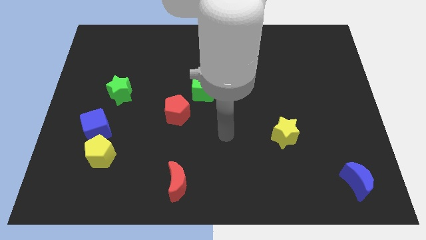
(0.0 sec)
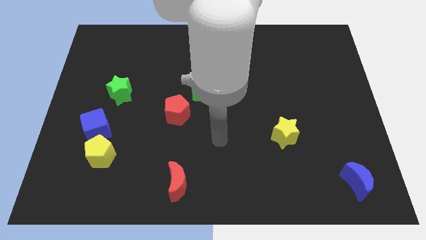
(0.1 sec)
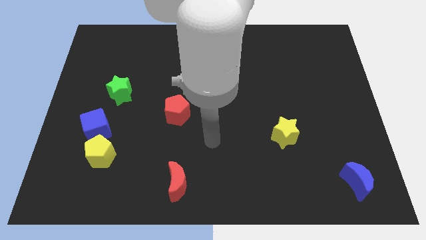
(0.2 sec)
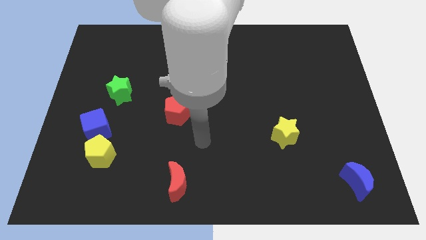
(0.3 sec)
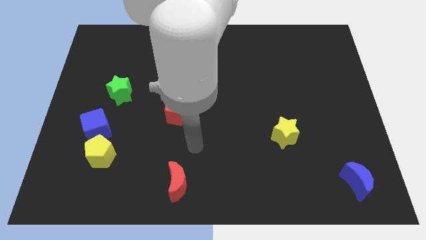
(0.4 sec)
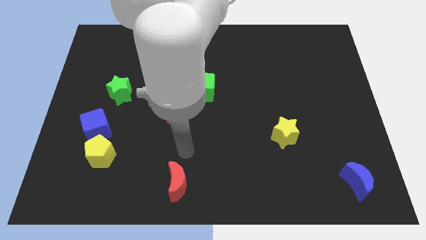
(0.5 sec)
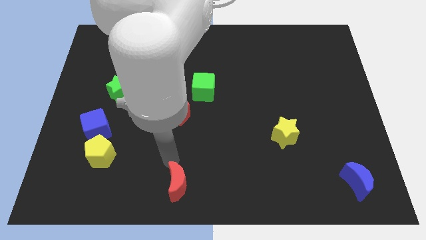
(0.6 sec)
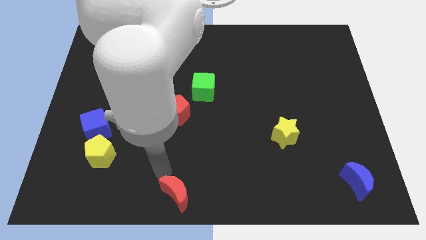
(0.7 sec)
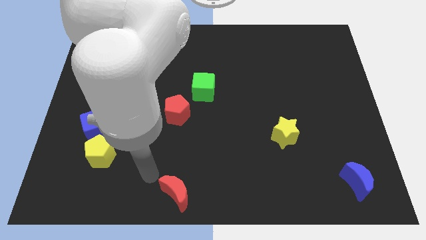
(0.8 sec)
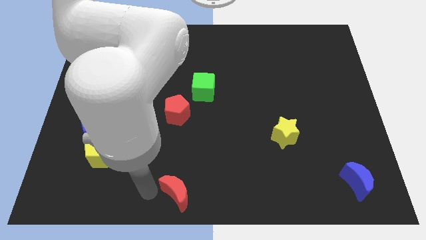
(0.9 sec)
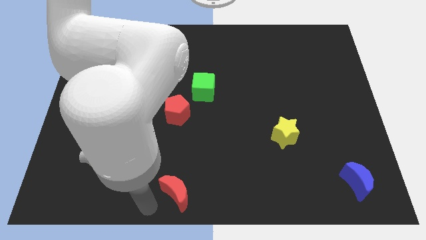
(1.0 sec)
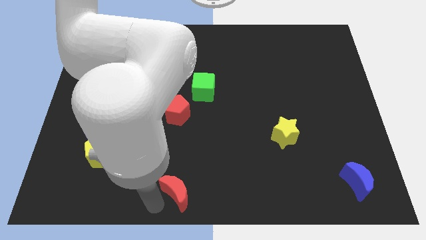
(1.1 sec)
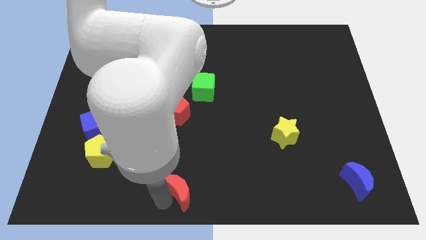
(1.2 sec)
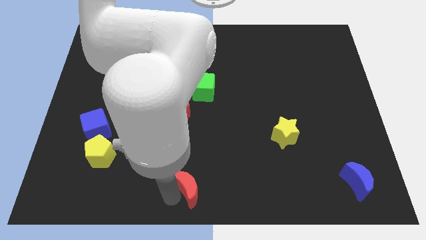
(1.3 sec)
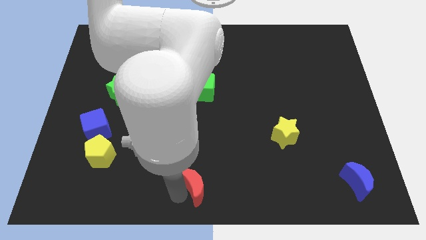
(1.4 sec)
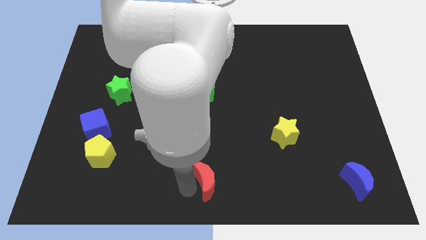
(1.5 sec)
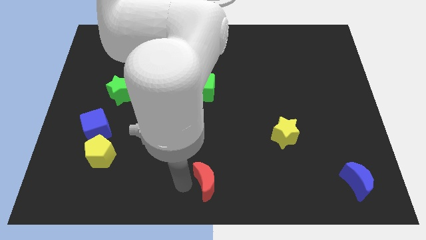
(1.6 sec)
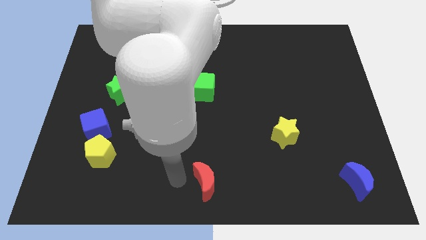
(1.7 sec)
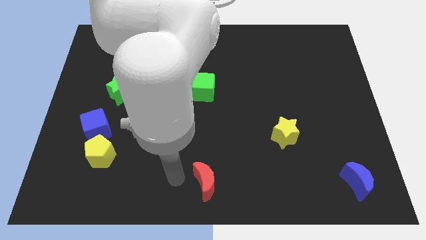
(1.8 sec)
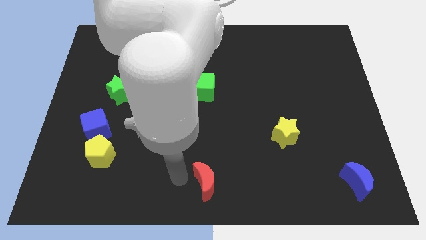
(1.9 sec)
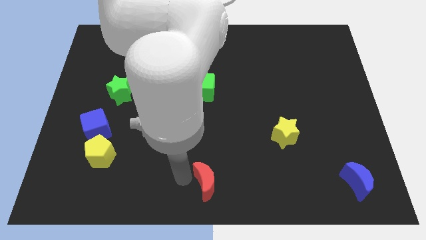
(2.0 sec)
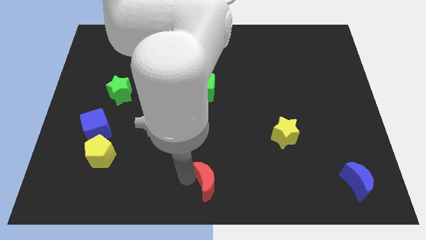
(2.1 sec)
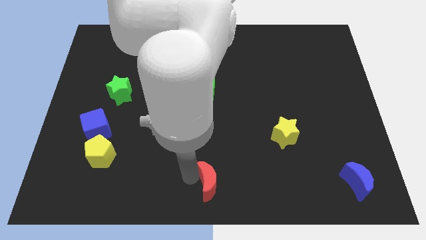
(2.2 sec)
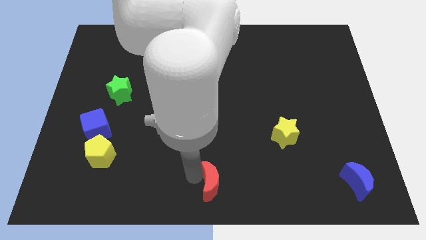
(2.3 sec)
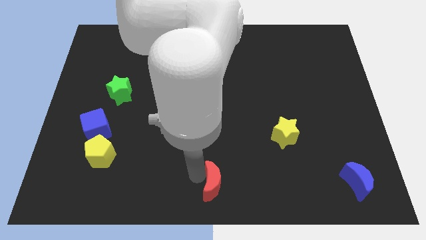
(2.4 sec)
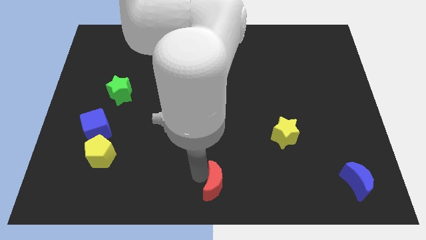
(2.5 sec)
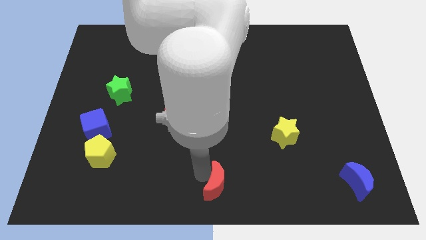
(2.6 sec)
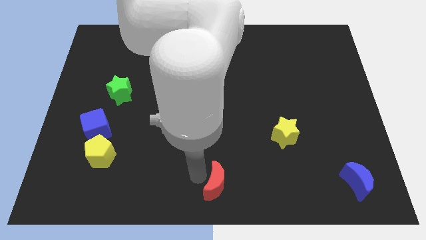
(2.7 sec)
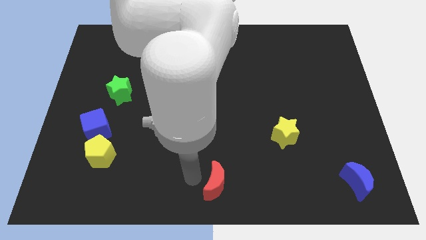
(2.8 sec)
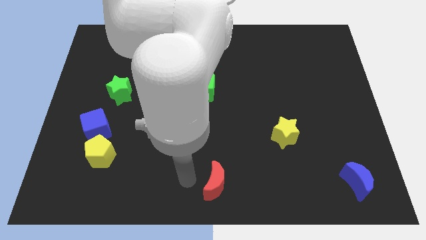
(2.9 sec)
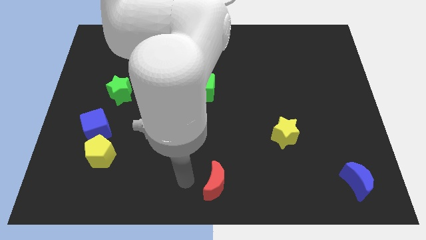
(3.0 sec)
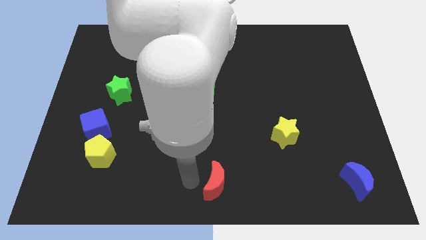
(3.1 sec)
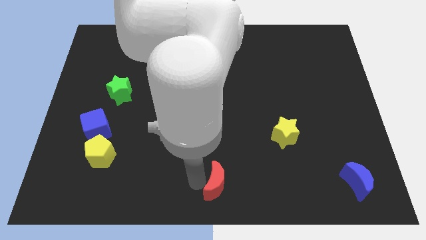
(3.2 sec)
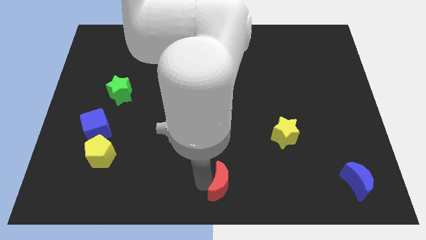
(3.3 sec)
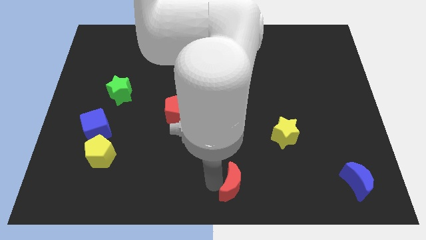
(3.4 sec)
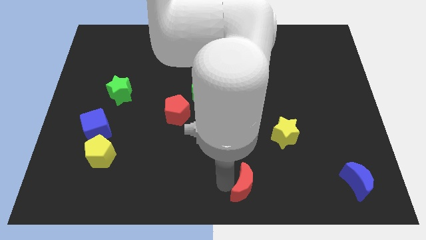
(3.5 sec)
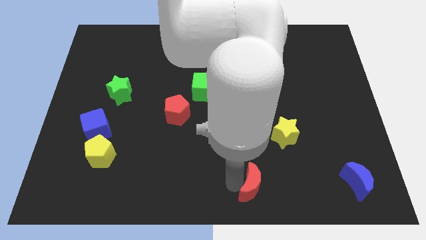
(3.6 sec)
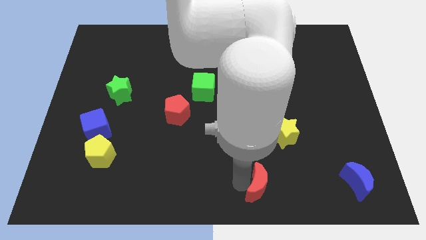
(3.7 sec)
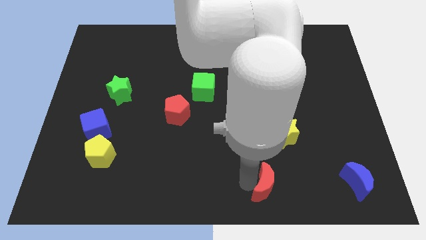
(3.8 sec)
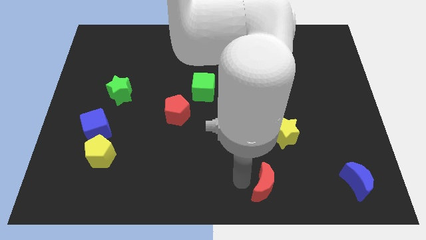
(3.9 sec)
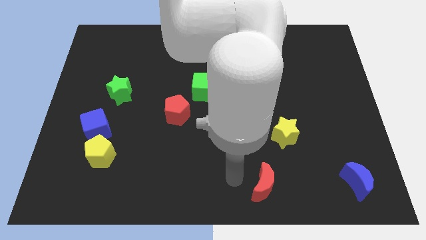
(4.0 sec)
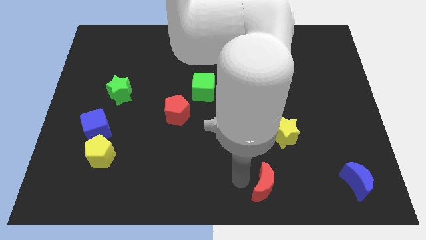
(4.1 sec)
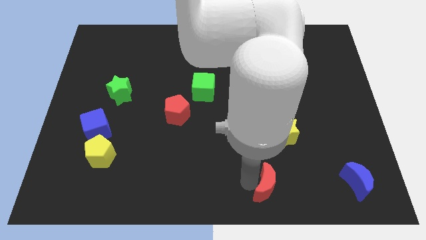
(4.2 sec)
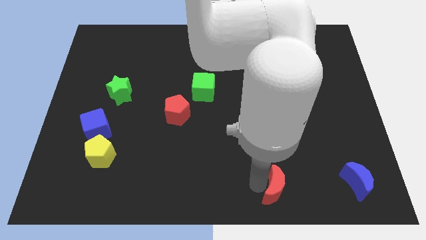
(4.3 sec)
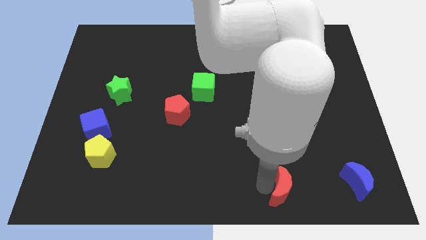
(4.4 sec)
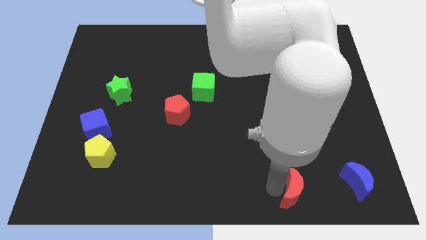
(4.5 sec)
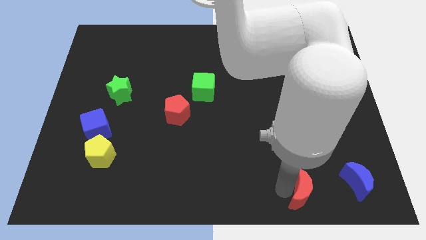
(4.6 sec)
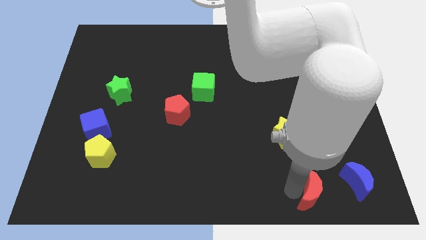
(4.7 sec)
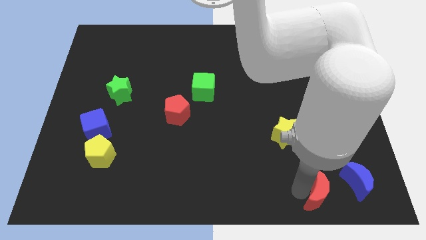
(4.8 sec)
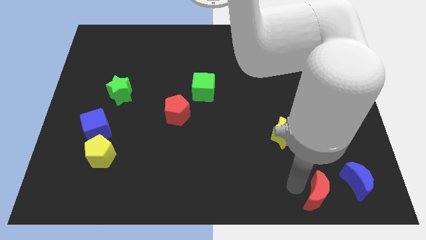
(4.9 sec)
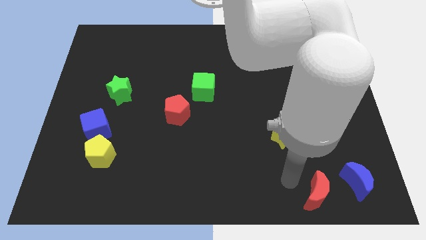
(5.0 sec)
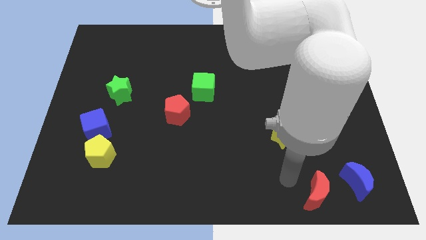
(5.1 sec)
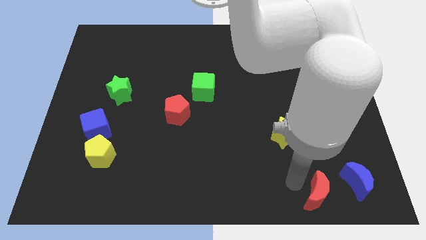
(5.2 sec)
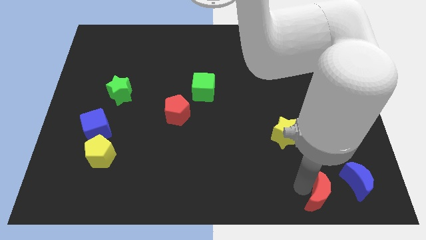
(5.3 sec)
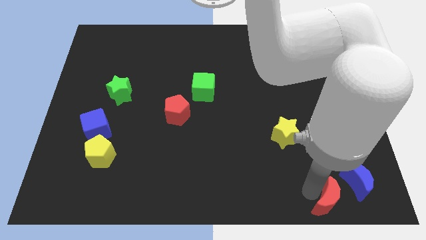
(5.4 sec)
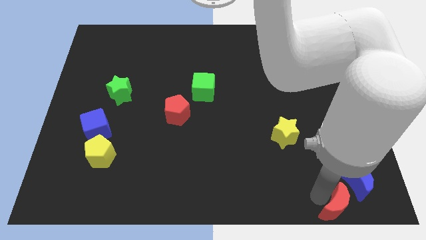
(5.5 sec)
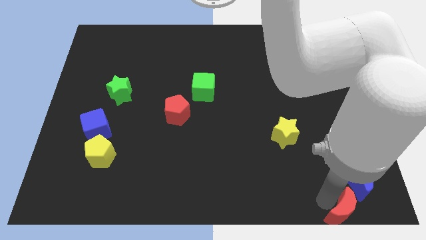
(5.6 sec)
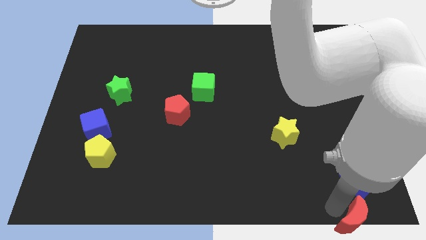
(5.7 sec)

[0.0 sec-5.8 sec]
push the red moon to the lower right corner

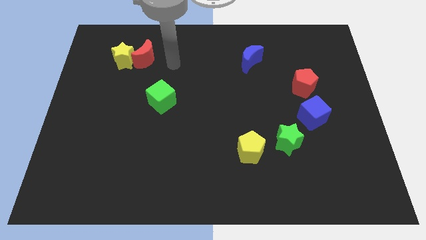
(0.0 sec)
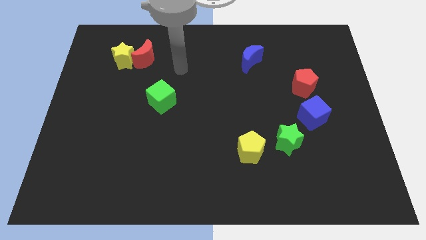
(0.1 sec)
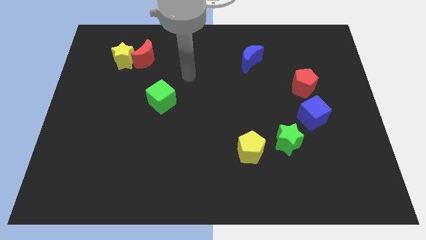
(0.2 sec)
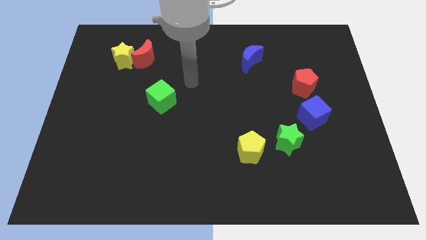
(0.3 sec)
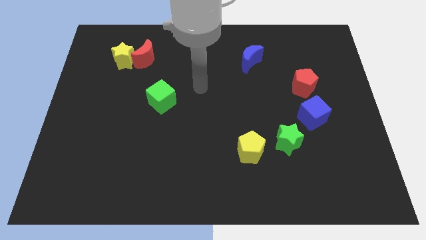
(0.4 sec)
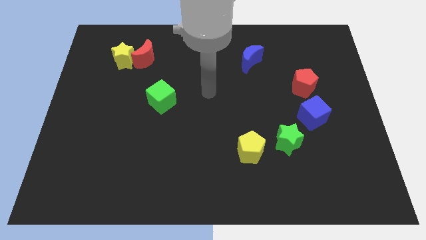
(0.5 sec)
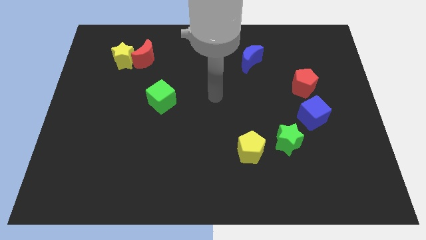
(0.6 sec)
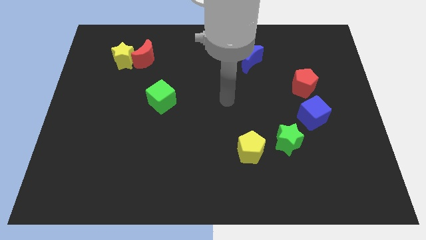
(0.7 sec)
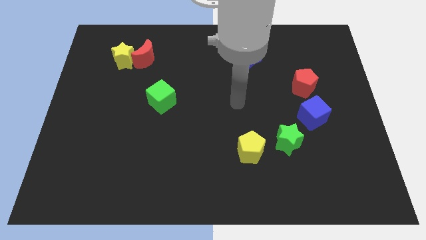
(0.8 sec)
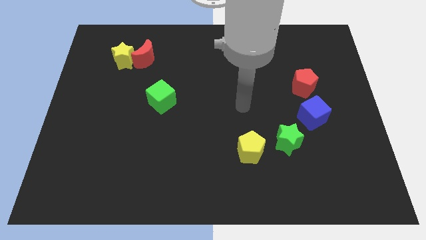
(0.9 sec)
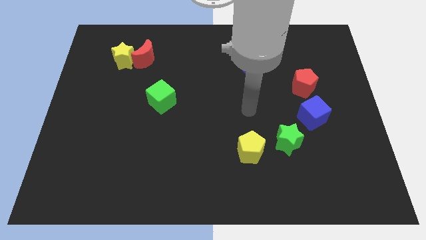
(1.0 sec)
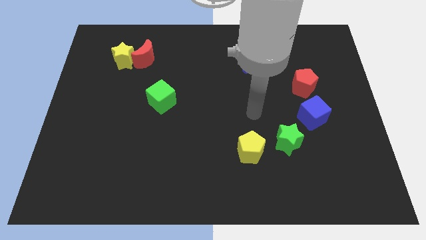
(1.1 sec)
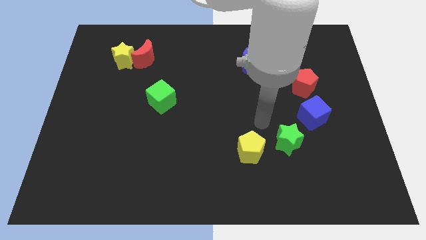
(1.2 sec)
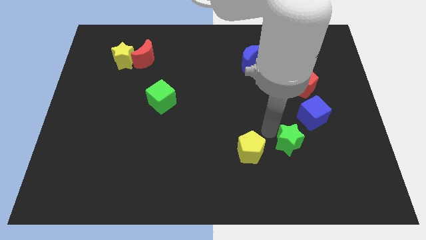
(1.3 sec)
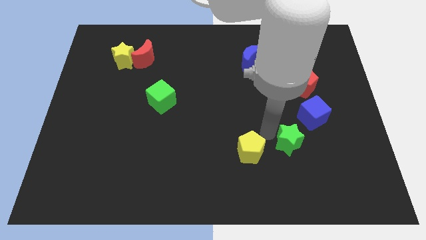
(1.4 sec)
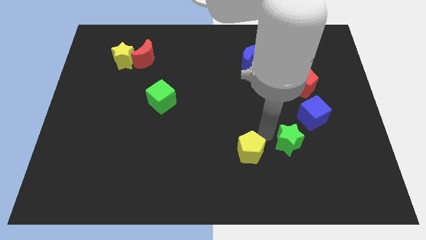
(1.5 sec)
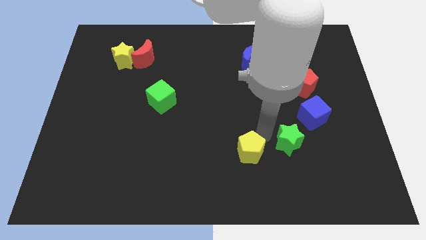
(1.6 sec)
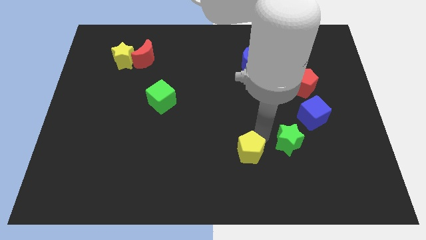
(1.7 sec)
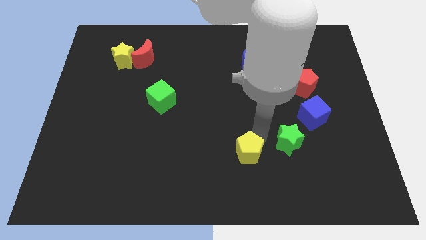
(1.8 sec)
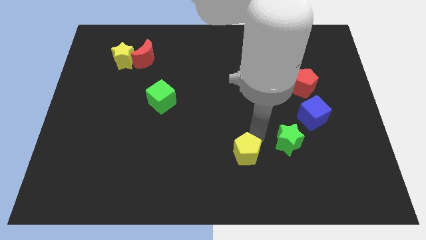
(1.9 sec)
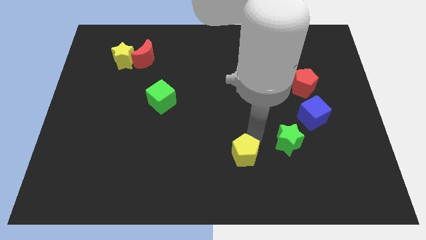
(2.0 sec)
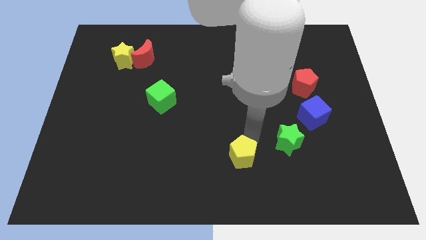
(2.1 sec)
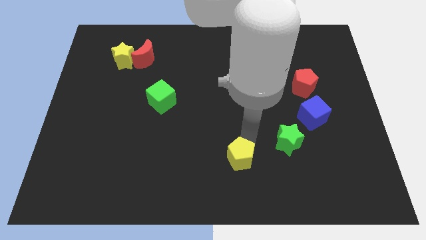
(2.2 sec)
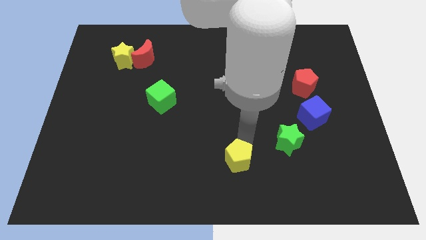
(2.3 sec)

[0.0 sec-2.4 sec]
push the yellow pentagon to the bottom
